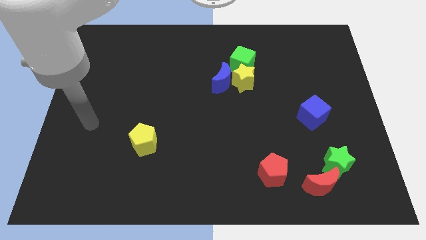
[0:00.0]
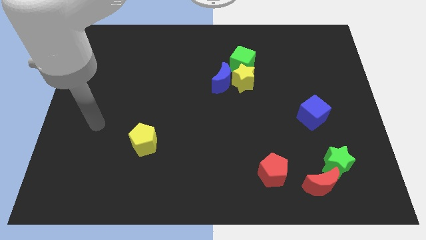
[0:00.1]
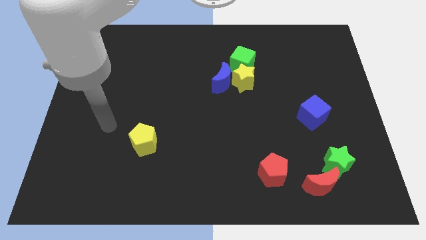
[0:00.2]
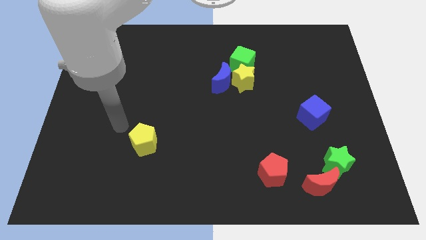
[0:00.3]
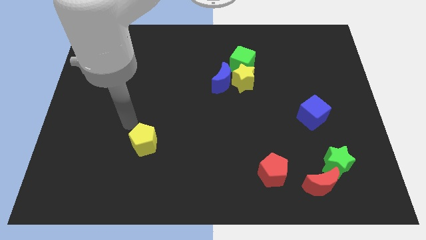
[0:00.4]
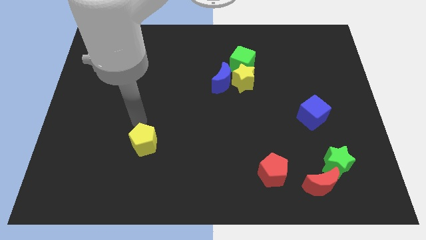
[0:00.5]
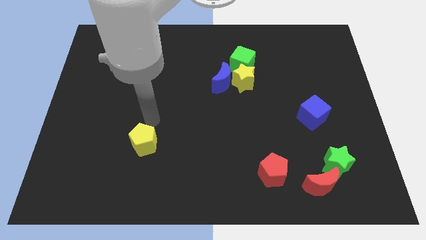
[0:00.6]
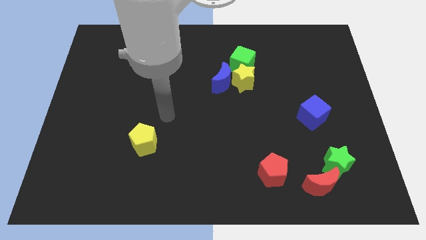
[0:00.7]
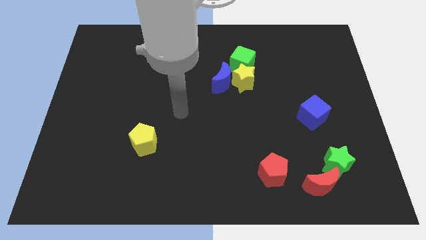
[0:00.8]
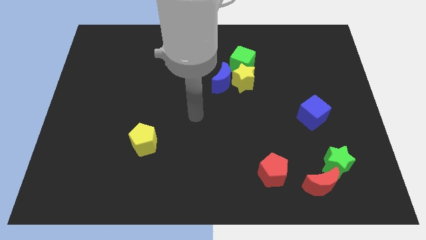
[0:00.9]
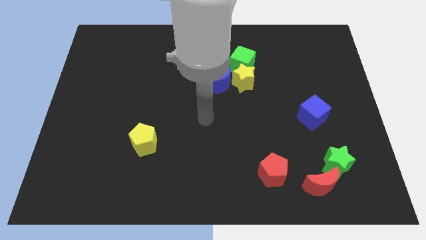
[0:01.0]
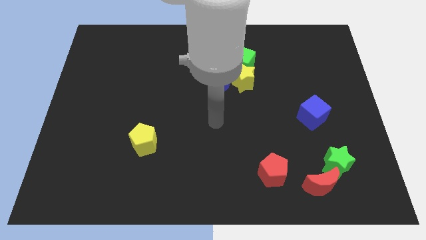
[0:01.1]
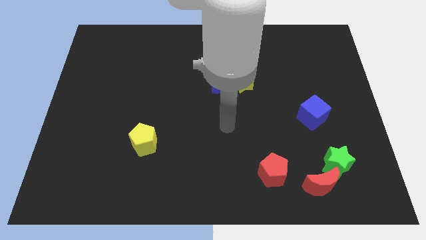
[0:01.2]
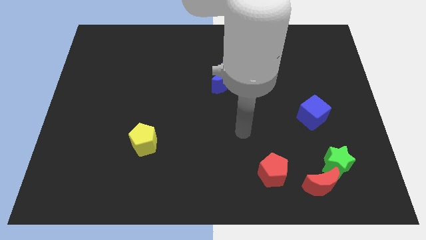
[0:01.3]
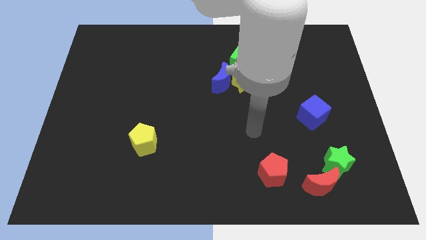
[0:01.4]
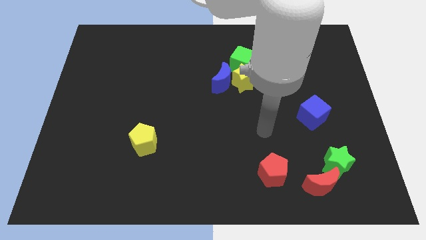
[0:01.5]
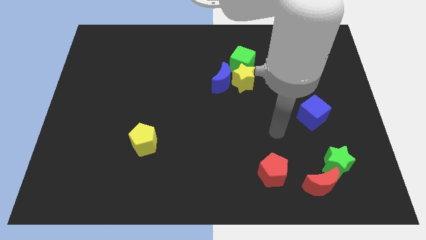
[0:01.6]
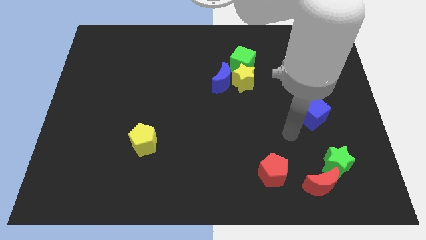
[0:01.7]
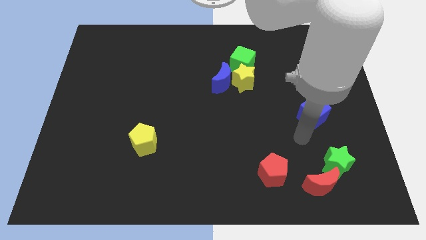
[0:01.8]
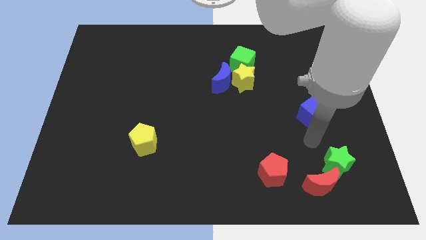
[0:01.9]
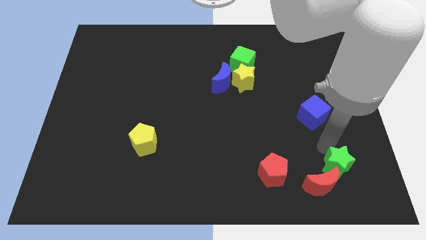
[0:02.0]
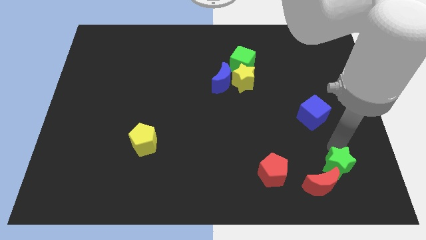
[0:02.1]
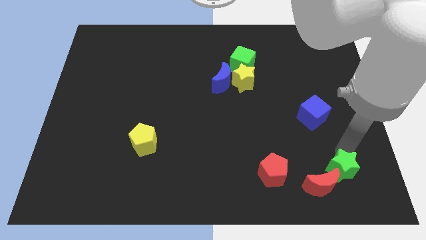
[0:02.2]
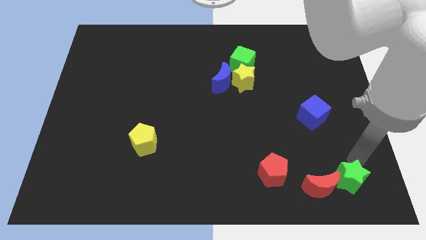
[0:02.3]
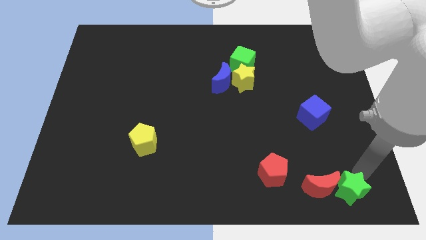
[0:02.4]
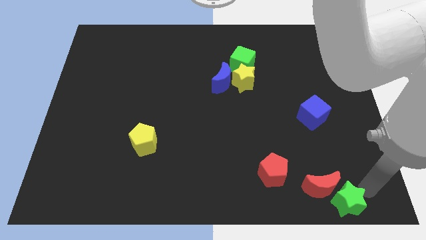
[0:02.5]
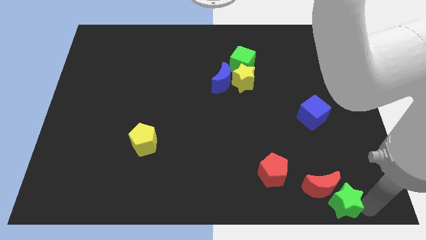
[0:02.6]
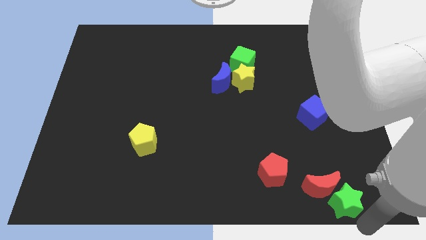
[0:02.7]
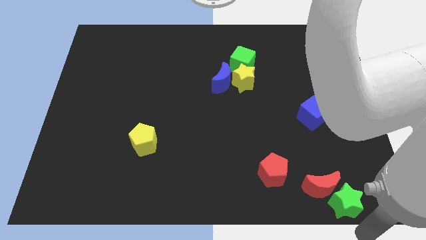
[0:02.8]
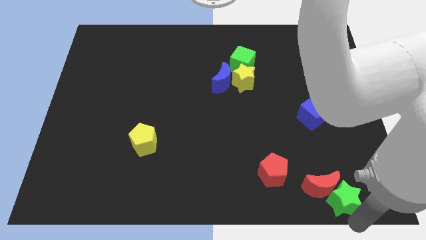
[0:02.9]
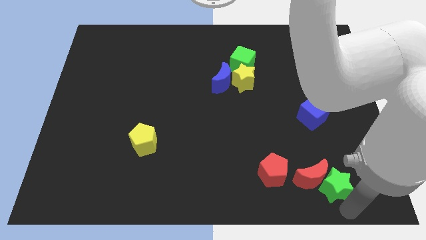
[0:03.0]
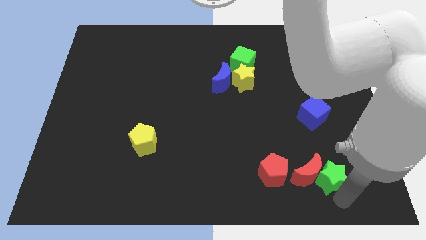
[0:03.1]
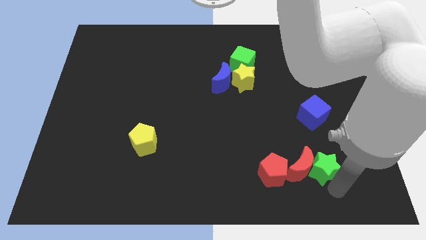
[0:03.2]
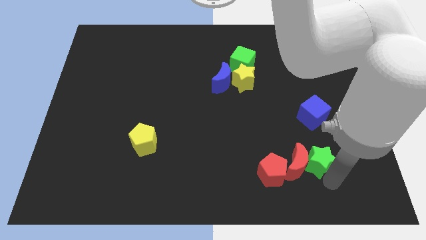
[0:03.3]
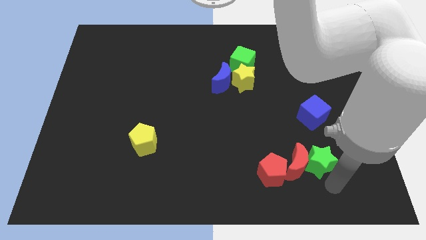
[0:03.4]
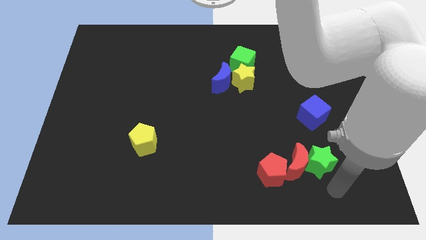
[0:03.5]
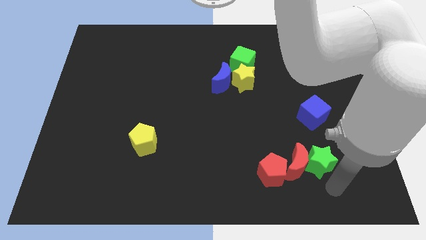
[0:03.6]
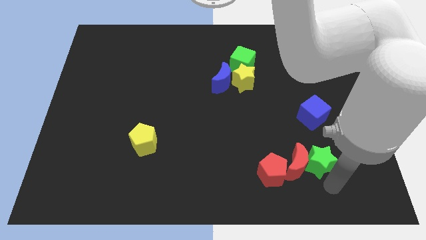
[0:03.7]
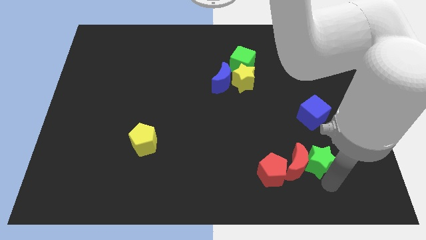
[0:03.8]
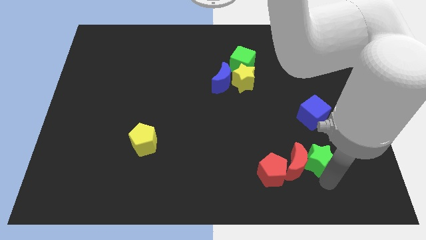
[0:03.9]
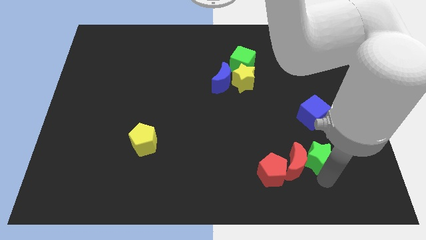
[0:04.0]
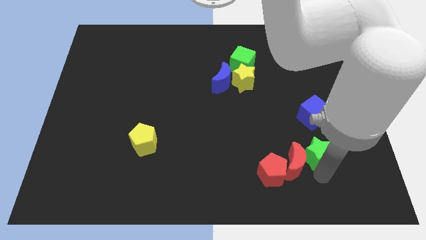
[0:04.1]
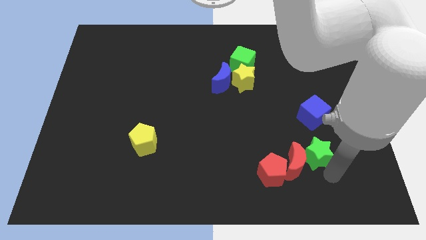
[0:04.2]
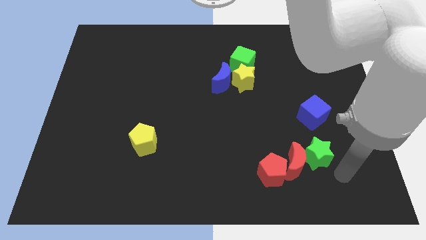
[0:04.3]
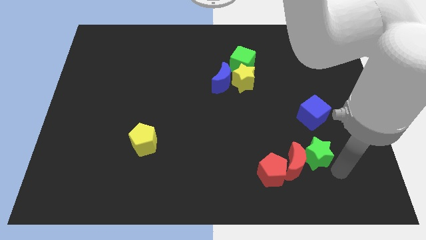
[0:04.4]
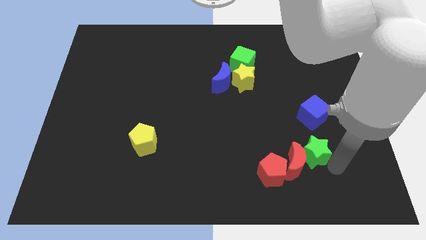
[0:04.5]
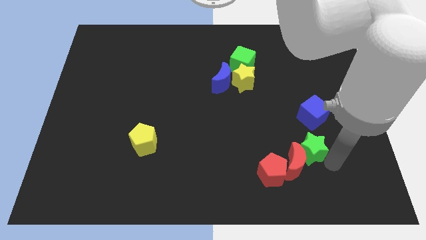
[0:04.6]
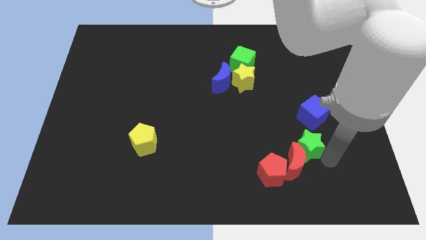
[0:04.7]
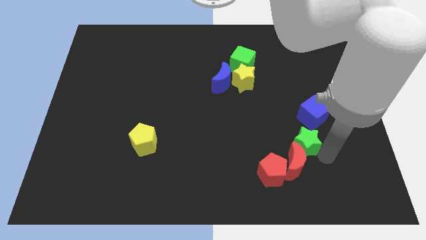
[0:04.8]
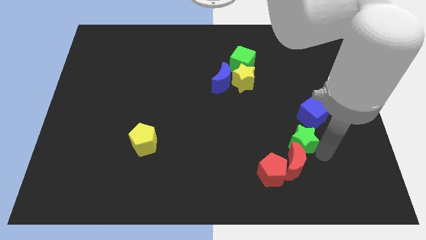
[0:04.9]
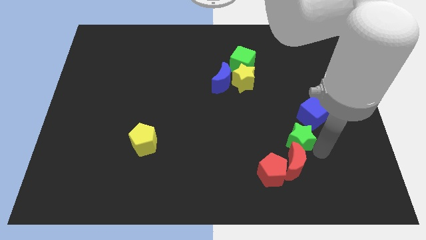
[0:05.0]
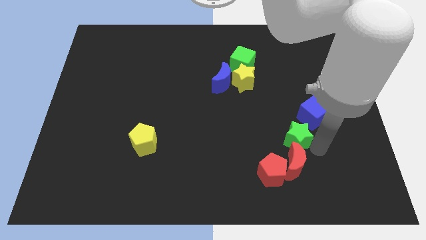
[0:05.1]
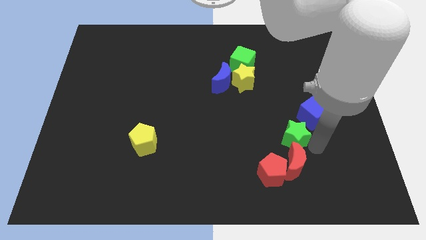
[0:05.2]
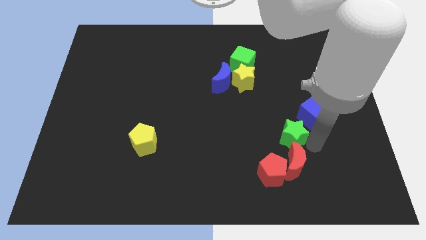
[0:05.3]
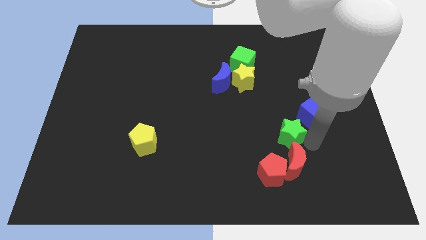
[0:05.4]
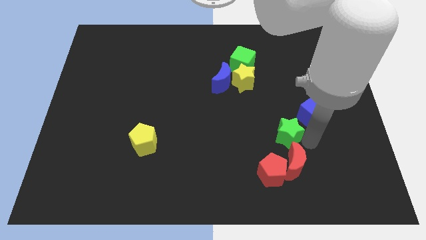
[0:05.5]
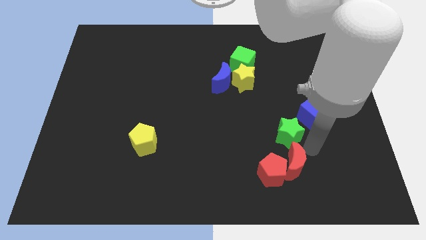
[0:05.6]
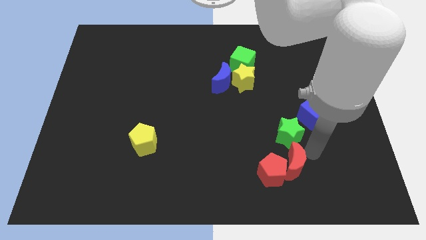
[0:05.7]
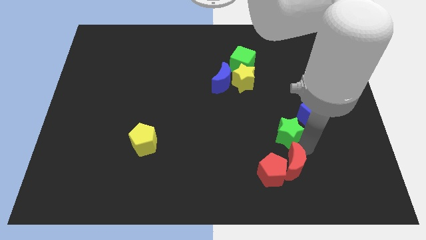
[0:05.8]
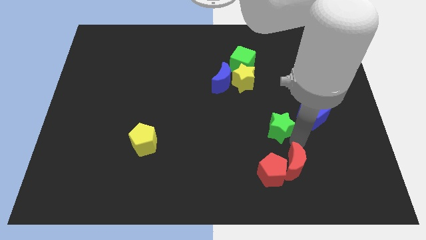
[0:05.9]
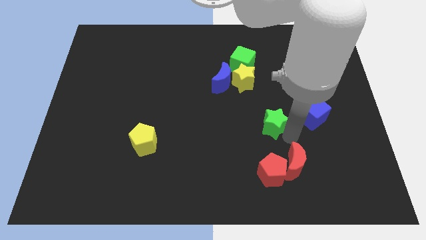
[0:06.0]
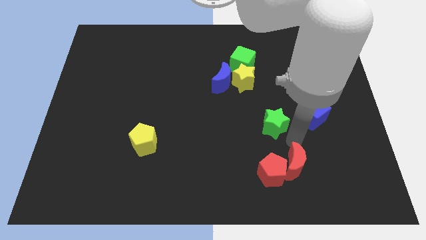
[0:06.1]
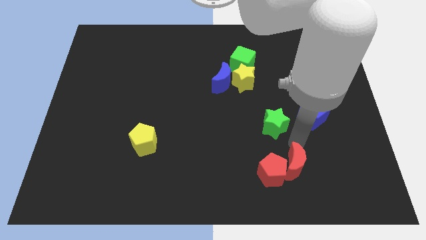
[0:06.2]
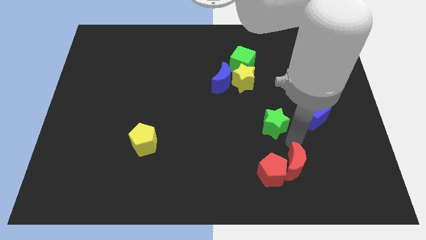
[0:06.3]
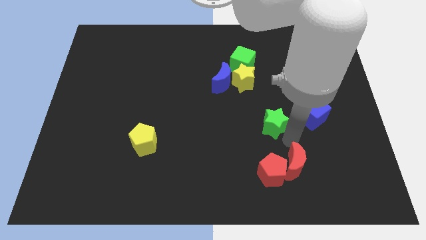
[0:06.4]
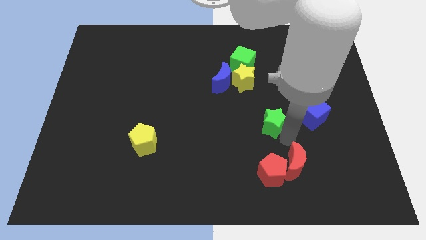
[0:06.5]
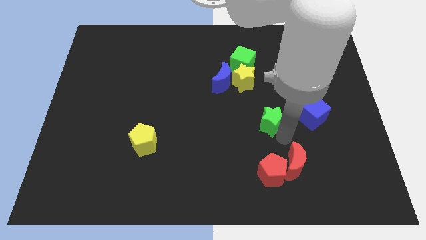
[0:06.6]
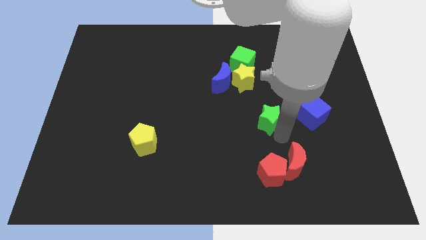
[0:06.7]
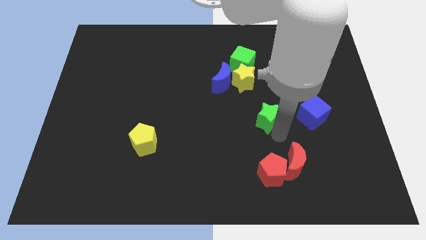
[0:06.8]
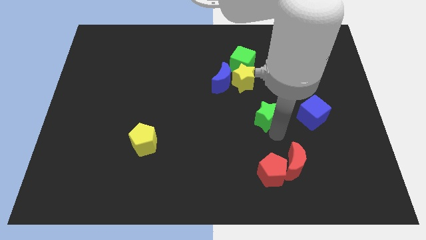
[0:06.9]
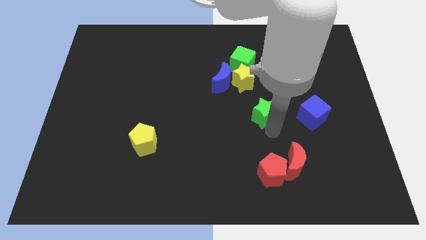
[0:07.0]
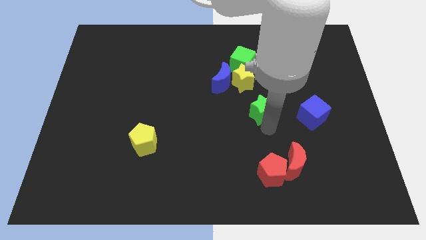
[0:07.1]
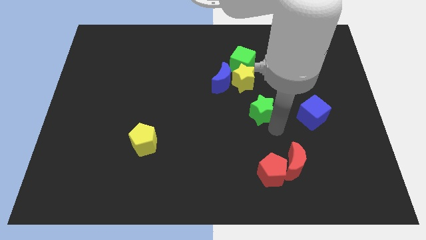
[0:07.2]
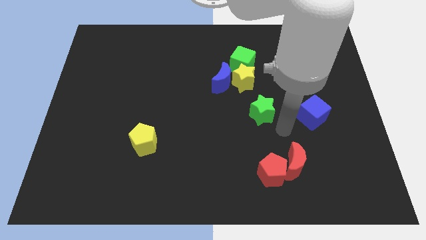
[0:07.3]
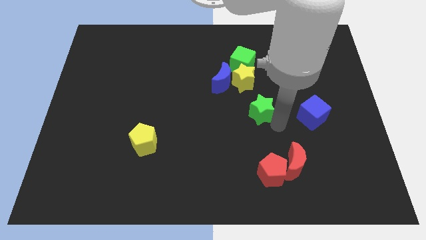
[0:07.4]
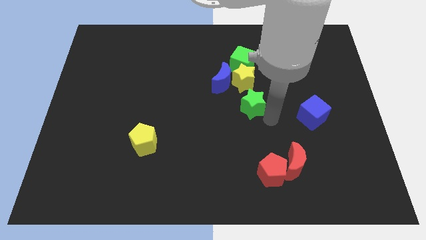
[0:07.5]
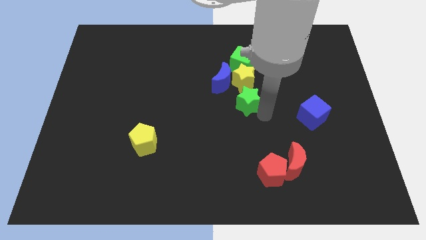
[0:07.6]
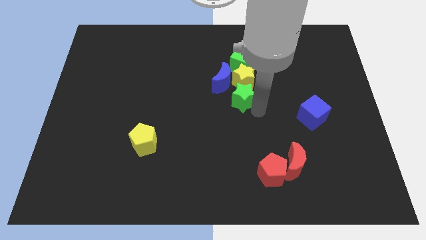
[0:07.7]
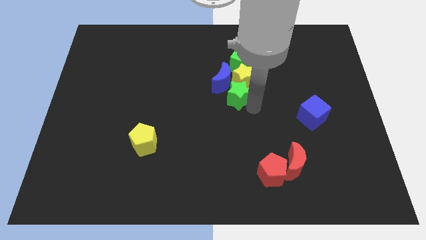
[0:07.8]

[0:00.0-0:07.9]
put the green star next to the blue moon
